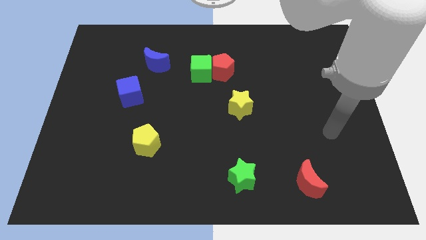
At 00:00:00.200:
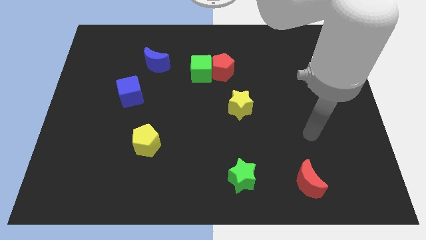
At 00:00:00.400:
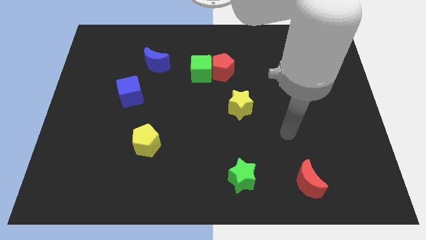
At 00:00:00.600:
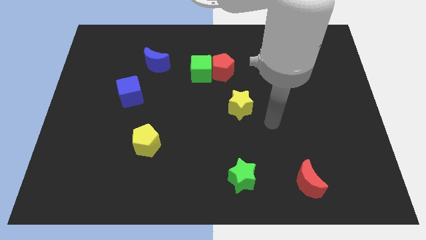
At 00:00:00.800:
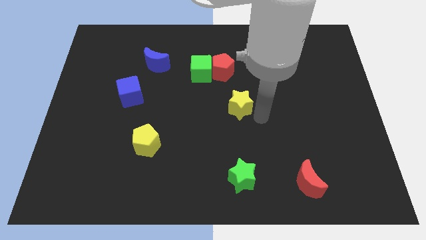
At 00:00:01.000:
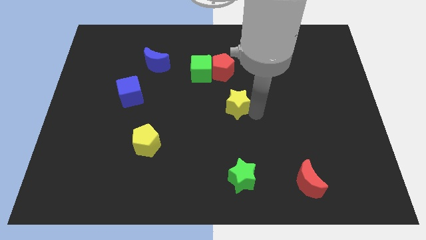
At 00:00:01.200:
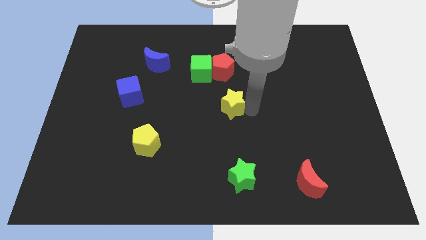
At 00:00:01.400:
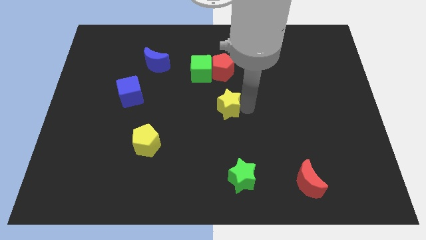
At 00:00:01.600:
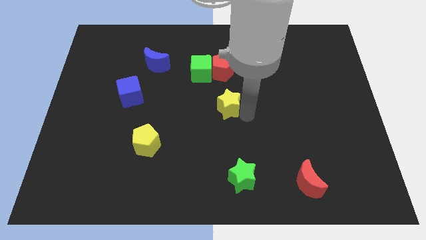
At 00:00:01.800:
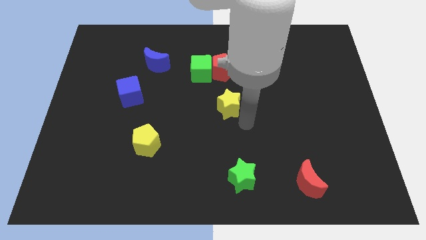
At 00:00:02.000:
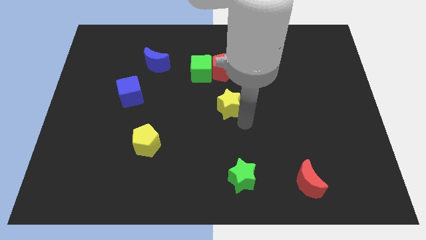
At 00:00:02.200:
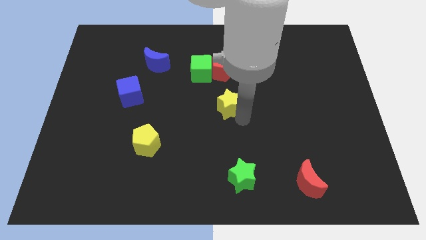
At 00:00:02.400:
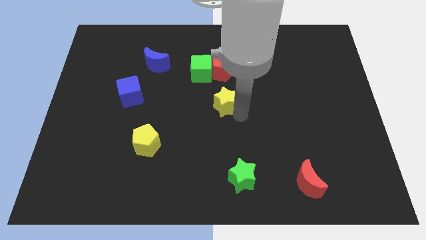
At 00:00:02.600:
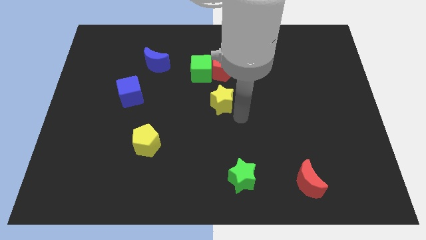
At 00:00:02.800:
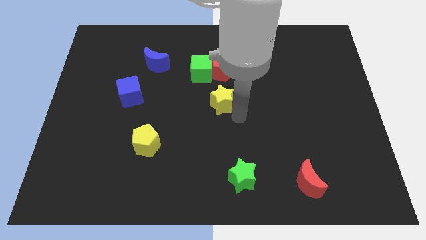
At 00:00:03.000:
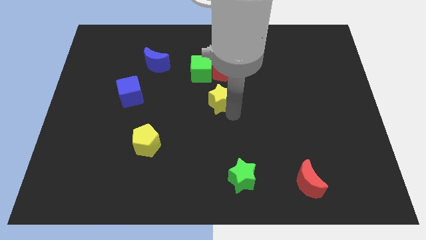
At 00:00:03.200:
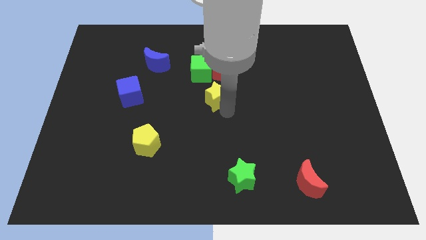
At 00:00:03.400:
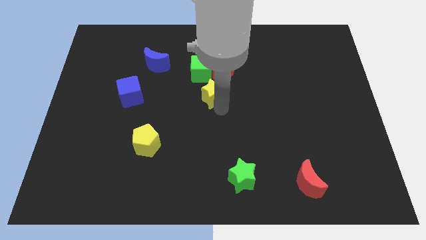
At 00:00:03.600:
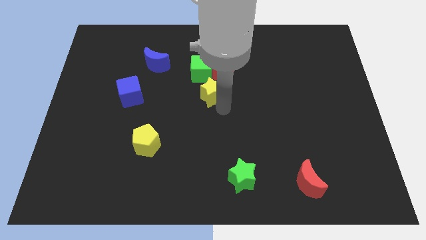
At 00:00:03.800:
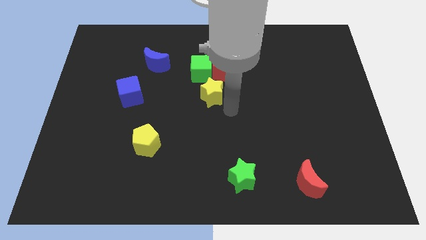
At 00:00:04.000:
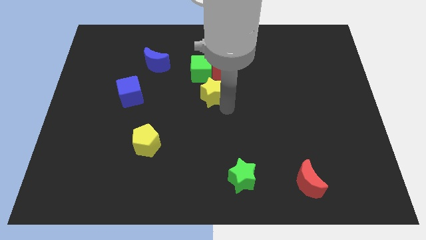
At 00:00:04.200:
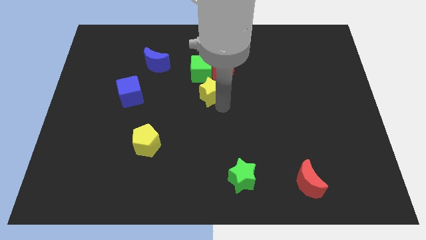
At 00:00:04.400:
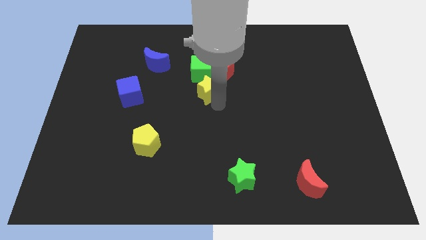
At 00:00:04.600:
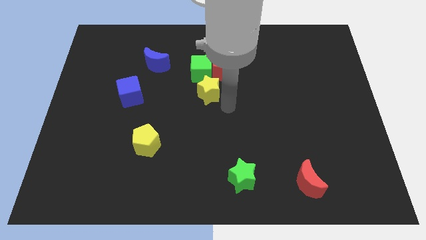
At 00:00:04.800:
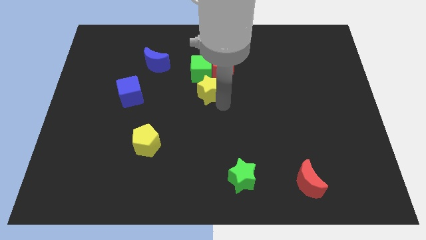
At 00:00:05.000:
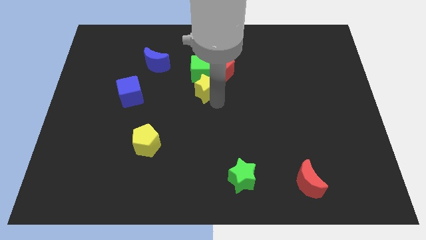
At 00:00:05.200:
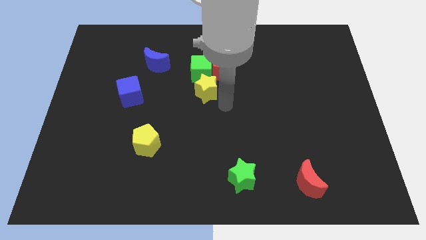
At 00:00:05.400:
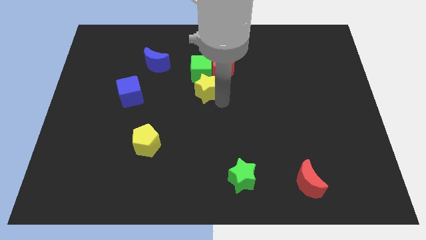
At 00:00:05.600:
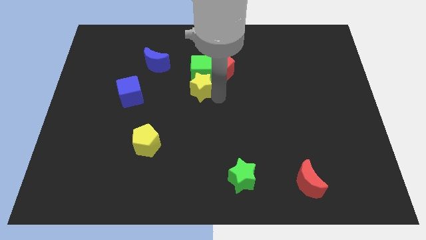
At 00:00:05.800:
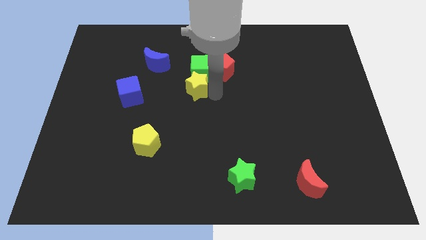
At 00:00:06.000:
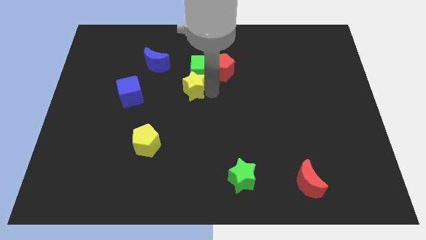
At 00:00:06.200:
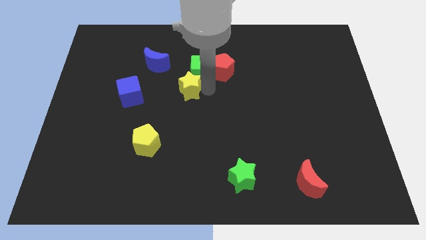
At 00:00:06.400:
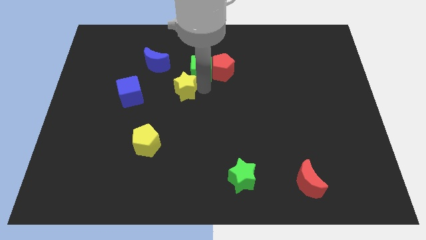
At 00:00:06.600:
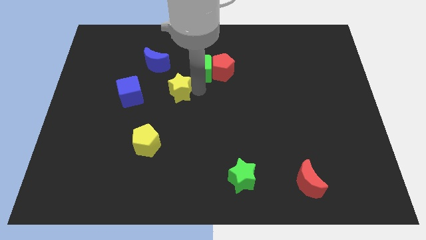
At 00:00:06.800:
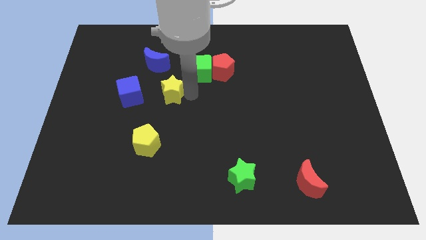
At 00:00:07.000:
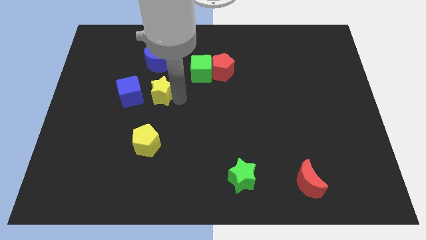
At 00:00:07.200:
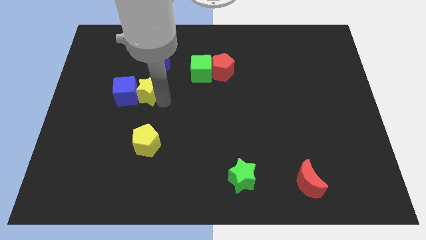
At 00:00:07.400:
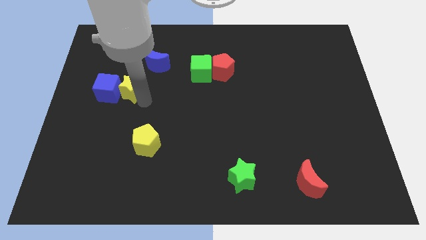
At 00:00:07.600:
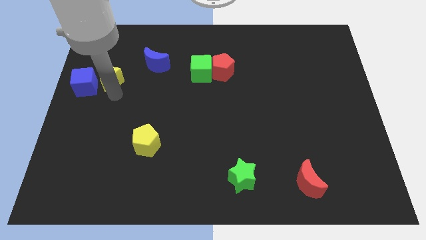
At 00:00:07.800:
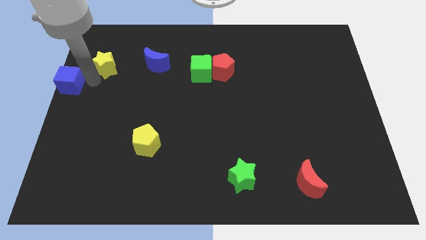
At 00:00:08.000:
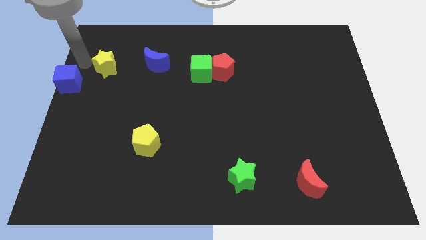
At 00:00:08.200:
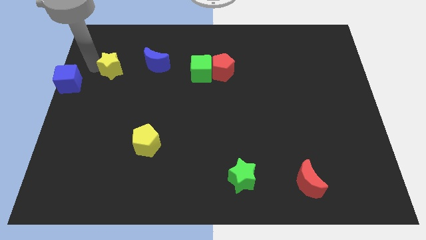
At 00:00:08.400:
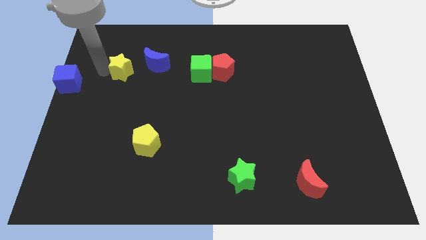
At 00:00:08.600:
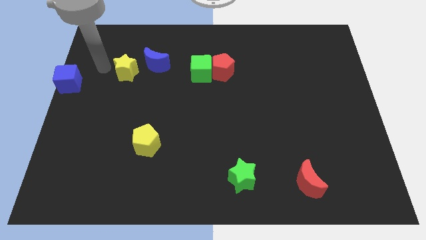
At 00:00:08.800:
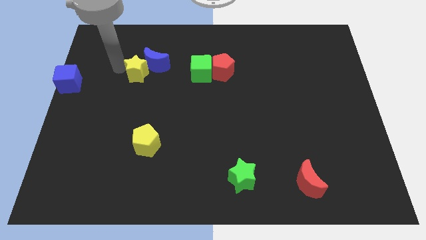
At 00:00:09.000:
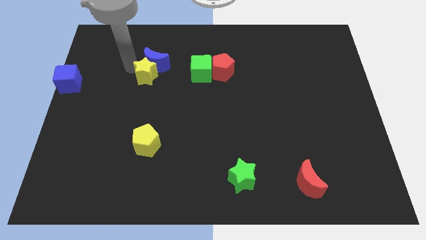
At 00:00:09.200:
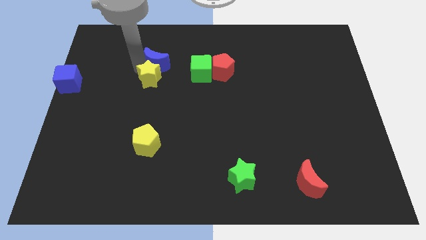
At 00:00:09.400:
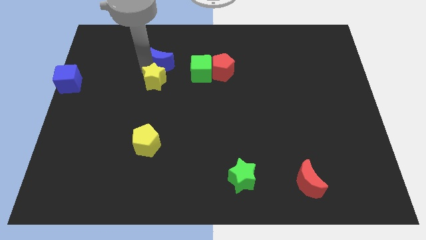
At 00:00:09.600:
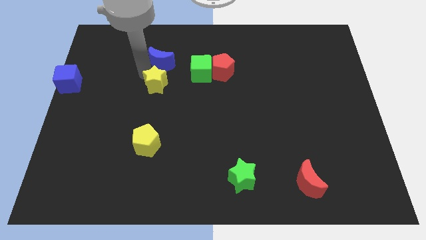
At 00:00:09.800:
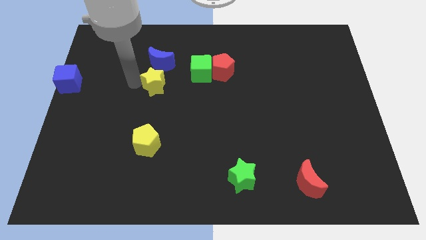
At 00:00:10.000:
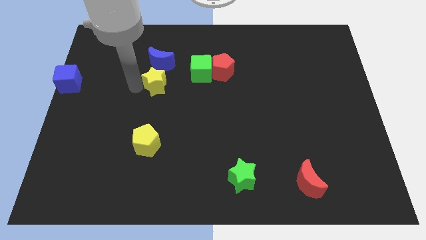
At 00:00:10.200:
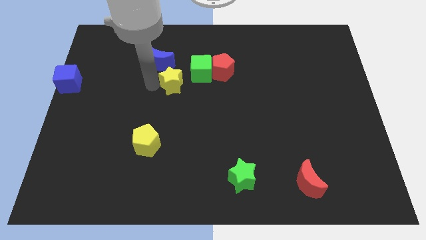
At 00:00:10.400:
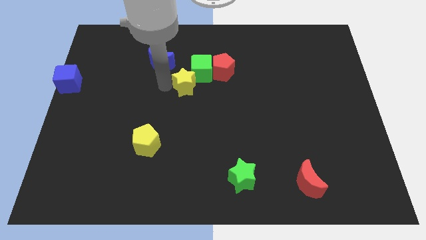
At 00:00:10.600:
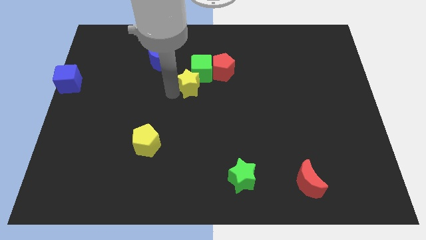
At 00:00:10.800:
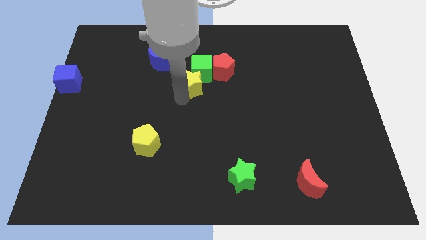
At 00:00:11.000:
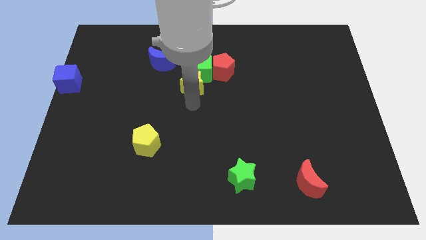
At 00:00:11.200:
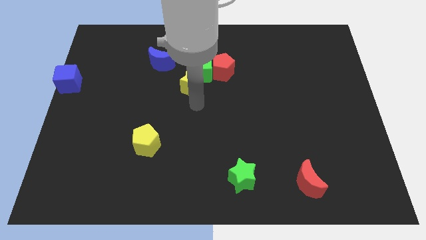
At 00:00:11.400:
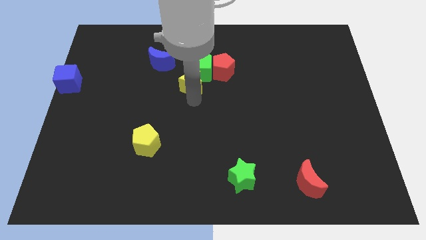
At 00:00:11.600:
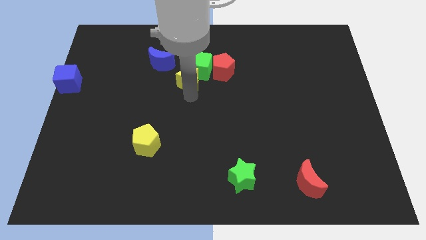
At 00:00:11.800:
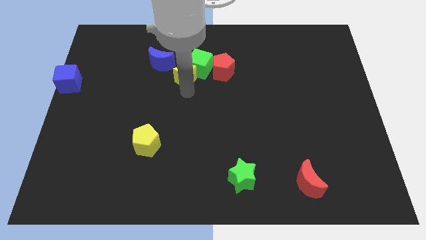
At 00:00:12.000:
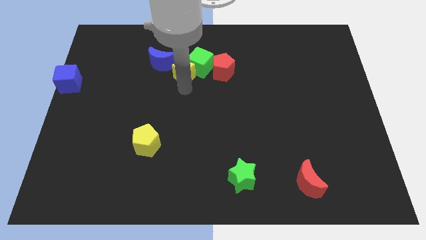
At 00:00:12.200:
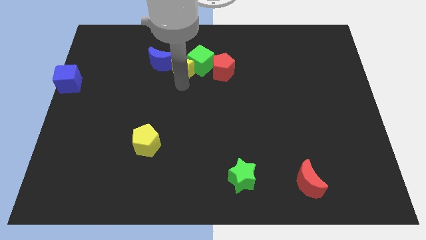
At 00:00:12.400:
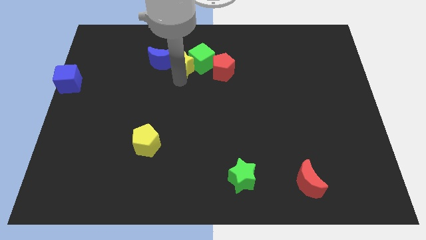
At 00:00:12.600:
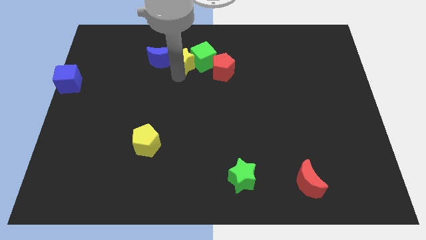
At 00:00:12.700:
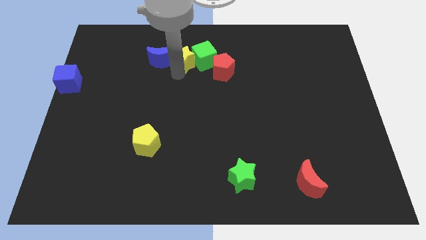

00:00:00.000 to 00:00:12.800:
put the yellow star diagonally up and to the left of the red pentagon

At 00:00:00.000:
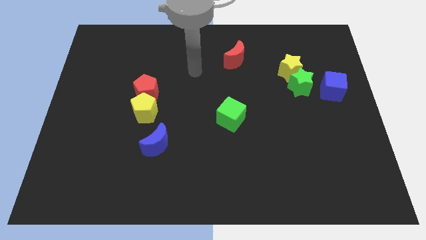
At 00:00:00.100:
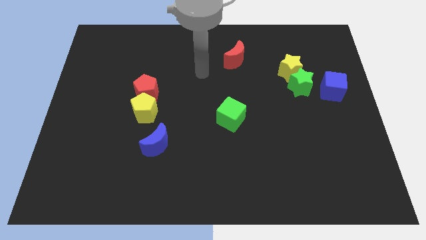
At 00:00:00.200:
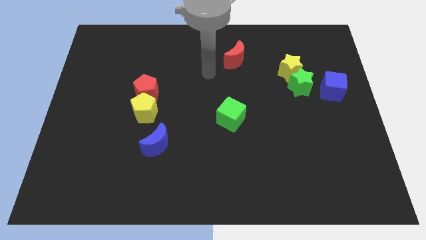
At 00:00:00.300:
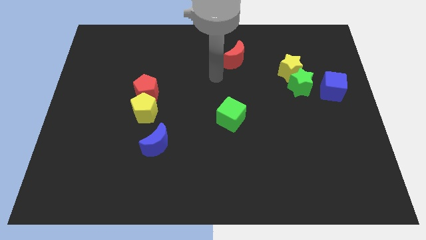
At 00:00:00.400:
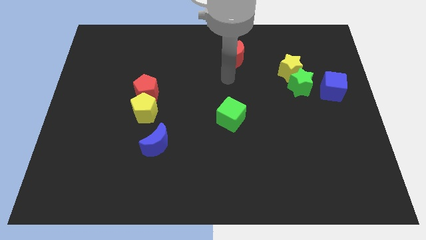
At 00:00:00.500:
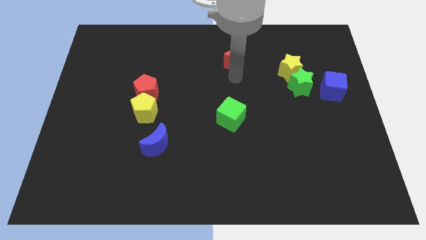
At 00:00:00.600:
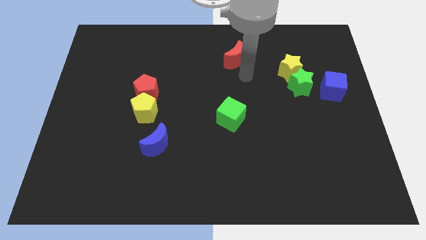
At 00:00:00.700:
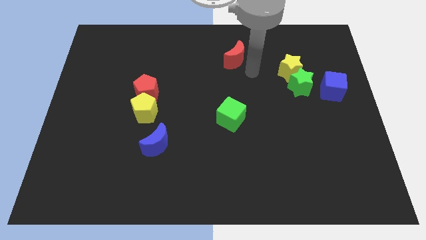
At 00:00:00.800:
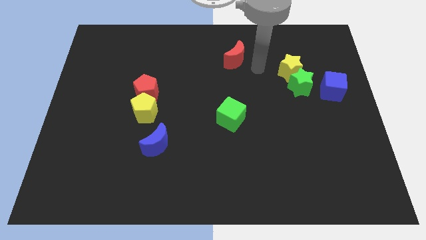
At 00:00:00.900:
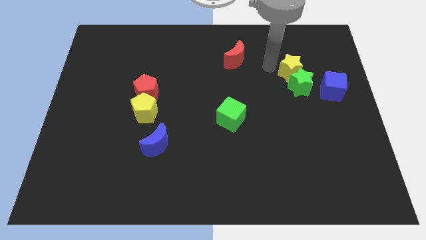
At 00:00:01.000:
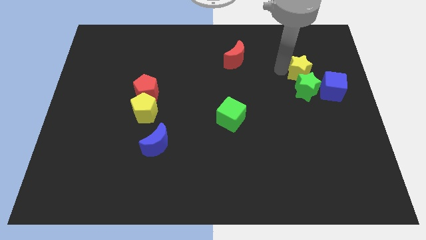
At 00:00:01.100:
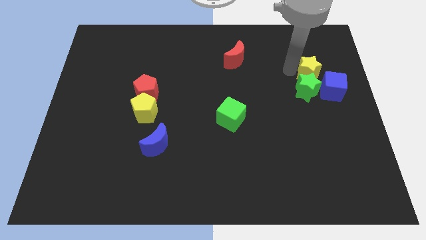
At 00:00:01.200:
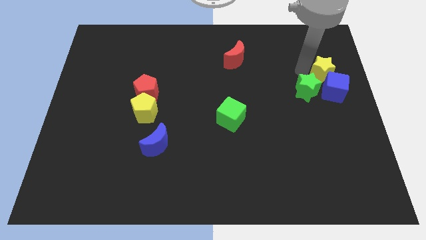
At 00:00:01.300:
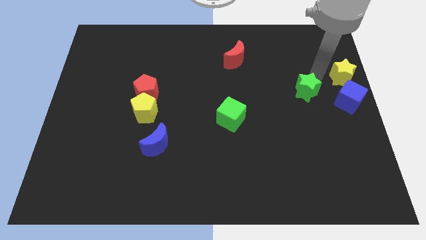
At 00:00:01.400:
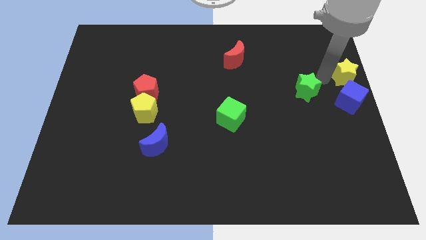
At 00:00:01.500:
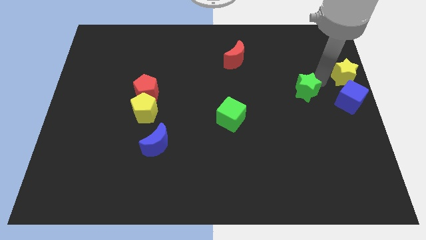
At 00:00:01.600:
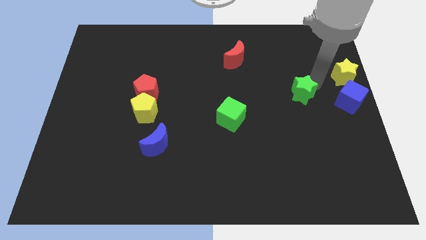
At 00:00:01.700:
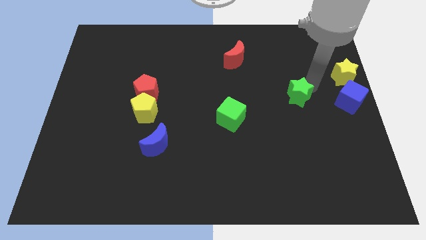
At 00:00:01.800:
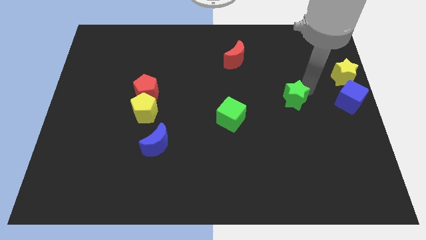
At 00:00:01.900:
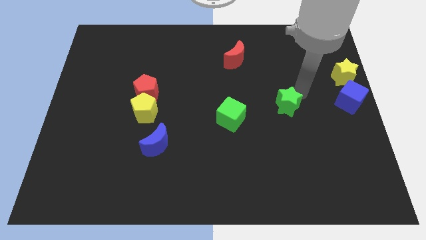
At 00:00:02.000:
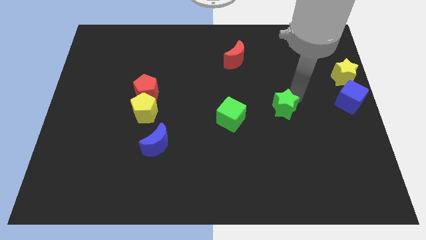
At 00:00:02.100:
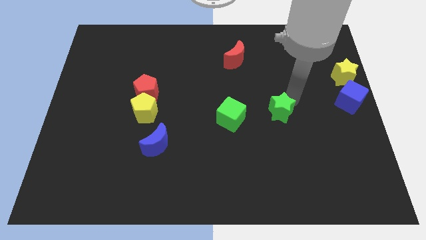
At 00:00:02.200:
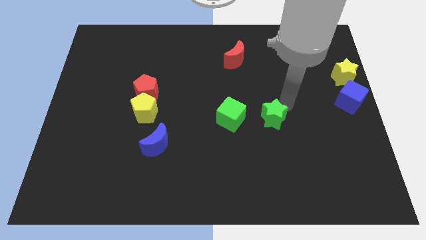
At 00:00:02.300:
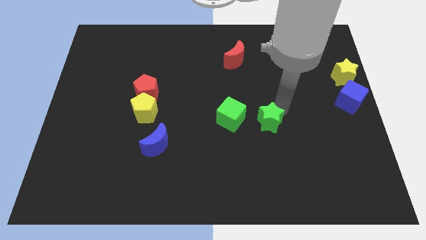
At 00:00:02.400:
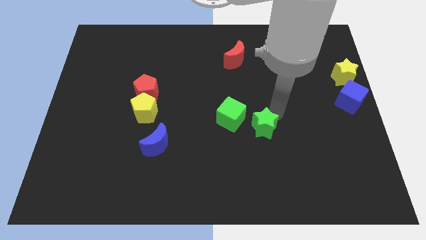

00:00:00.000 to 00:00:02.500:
push the green star to the bottom right side of the green cube
